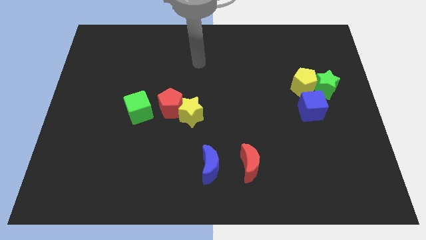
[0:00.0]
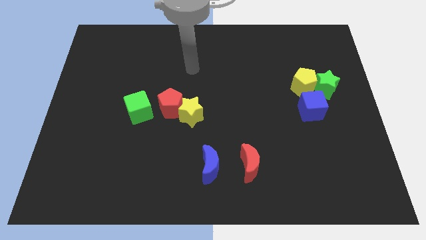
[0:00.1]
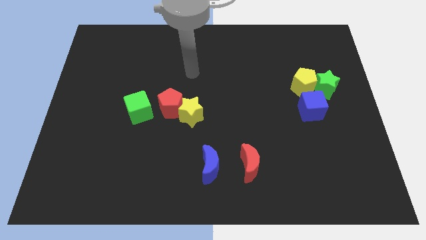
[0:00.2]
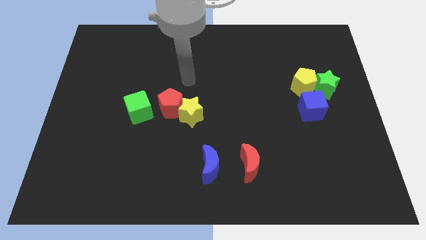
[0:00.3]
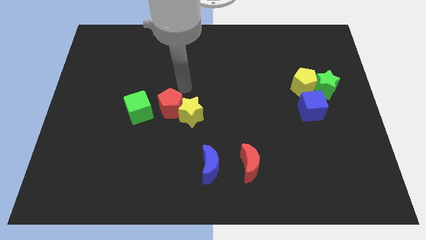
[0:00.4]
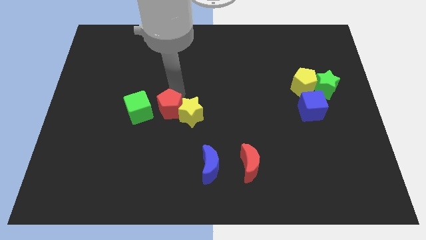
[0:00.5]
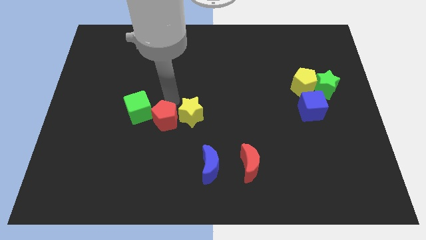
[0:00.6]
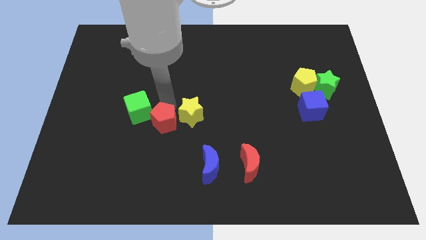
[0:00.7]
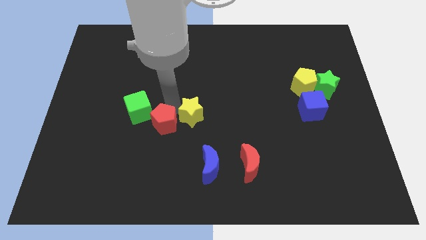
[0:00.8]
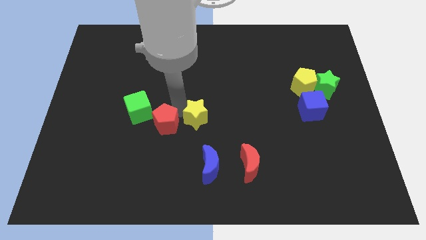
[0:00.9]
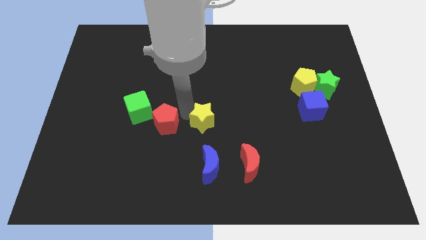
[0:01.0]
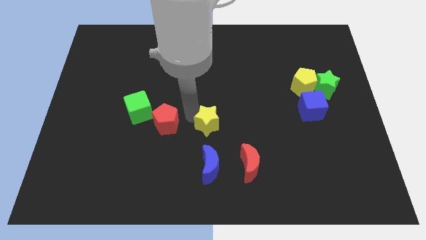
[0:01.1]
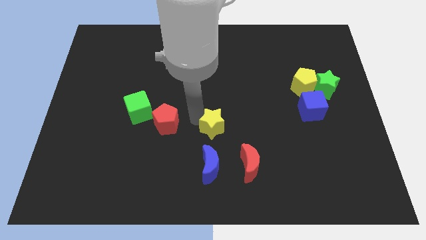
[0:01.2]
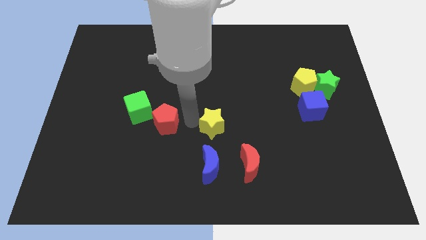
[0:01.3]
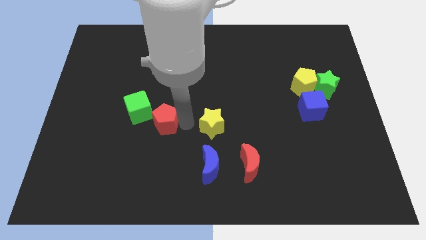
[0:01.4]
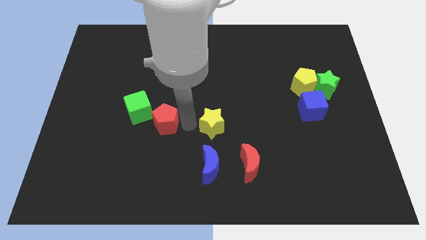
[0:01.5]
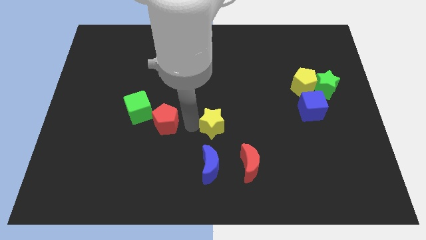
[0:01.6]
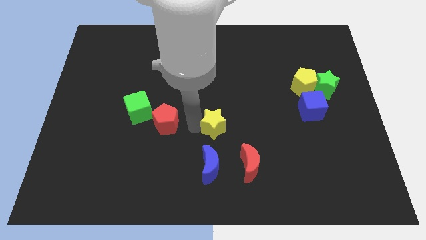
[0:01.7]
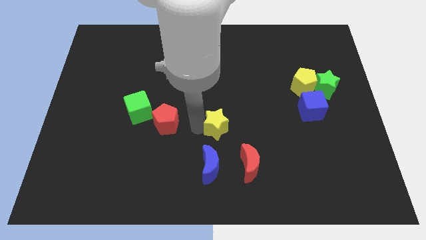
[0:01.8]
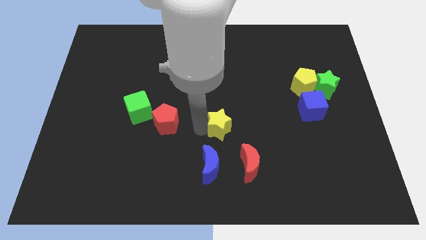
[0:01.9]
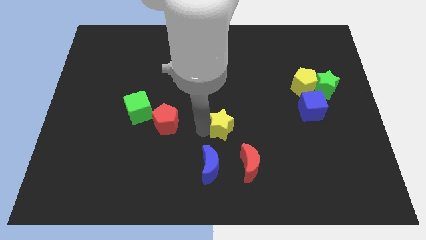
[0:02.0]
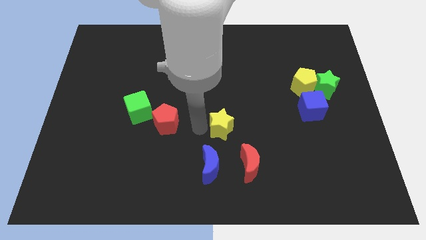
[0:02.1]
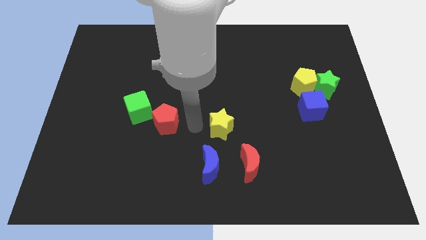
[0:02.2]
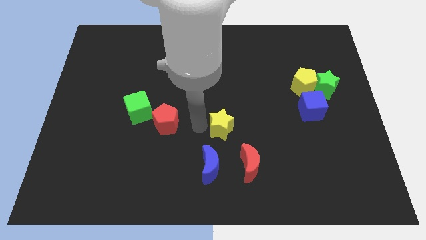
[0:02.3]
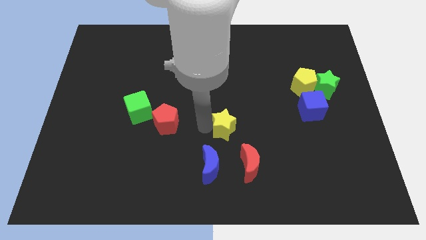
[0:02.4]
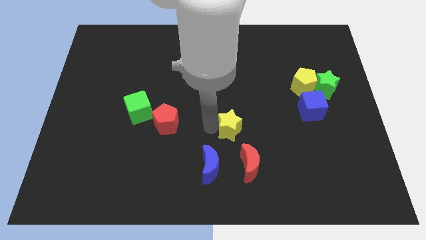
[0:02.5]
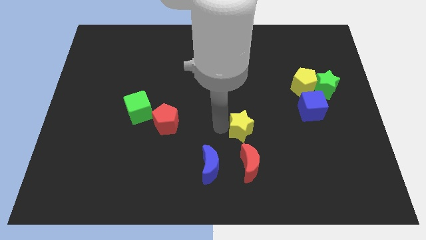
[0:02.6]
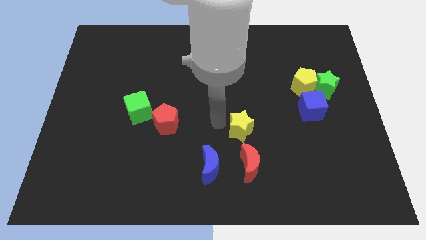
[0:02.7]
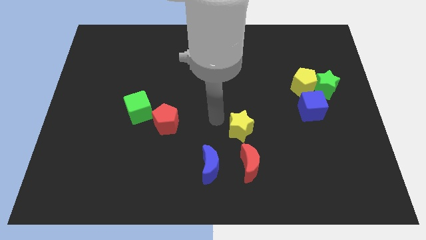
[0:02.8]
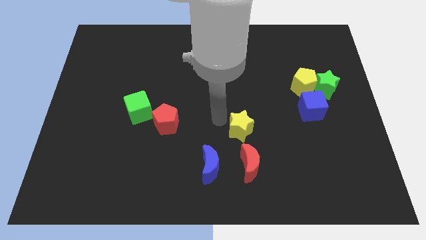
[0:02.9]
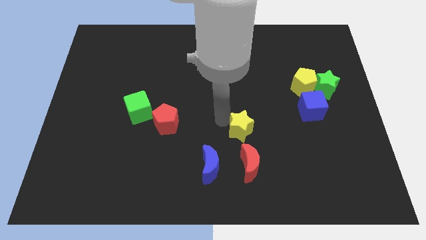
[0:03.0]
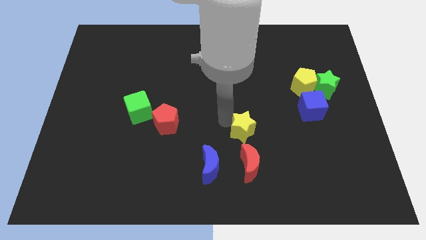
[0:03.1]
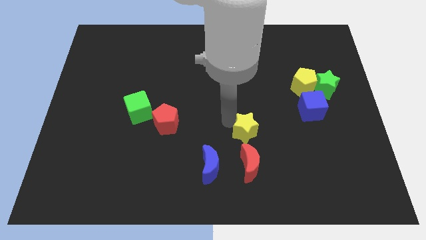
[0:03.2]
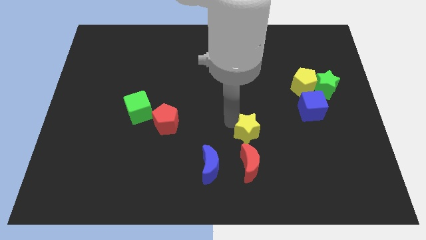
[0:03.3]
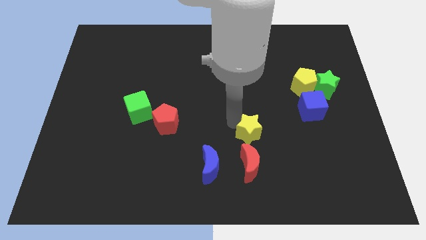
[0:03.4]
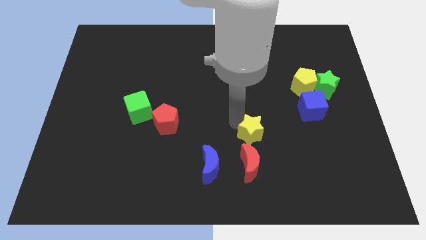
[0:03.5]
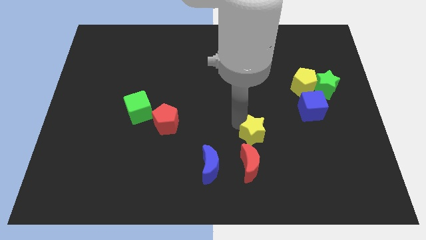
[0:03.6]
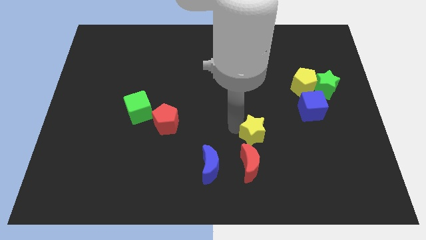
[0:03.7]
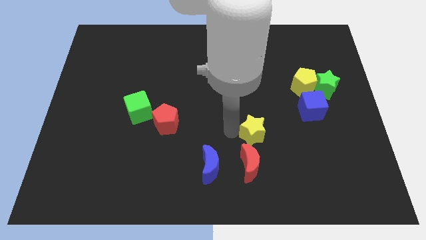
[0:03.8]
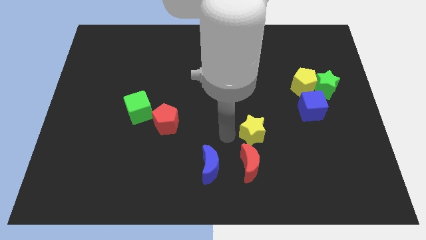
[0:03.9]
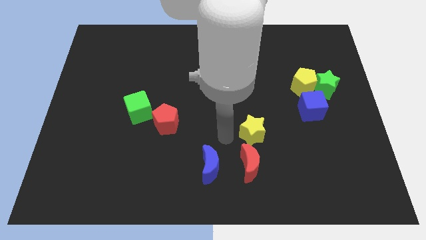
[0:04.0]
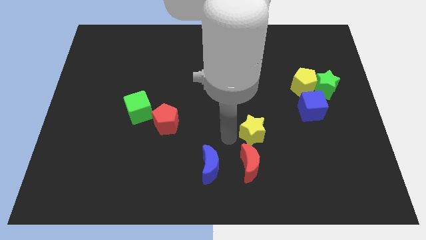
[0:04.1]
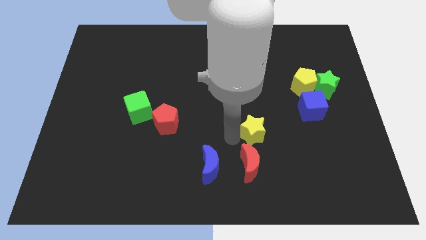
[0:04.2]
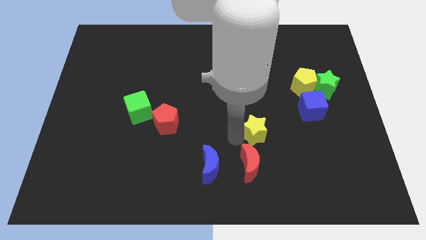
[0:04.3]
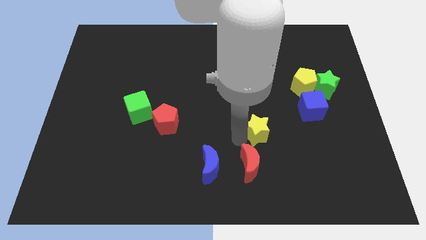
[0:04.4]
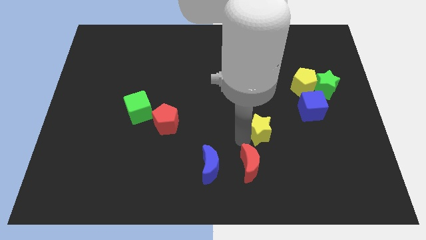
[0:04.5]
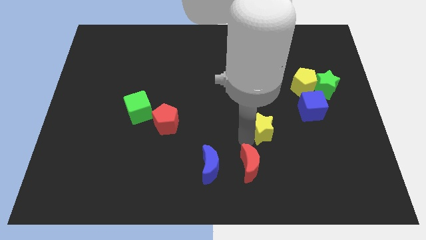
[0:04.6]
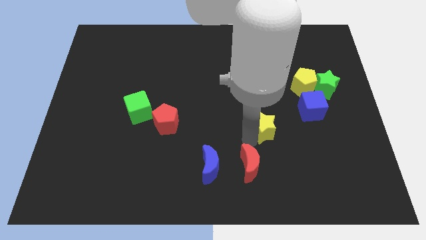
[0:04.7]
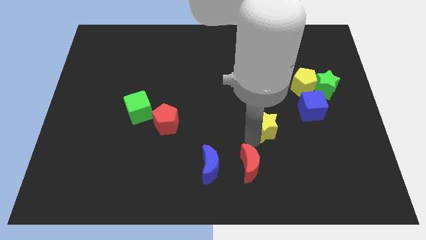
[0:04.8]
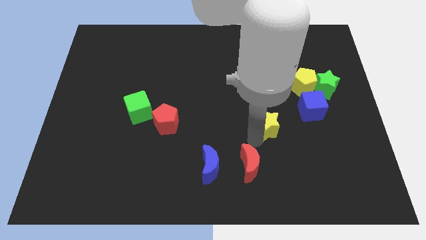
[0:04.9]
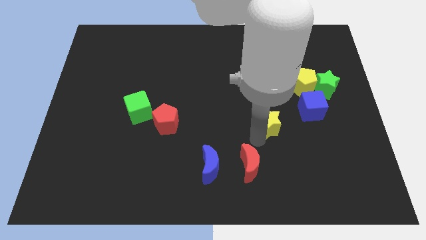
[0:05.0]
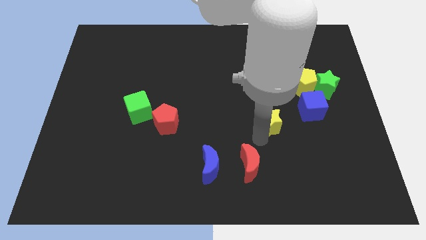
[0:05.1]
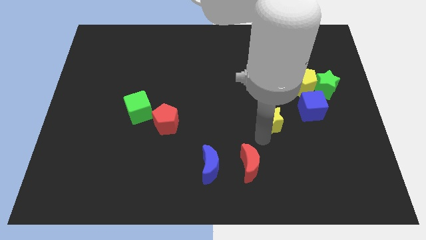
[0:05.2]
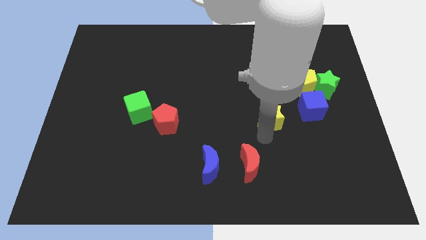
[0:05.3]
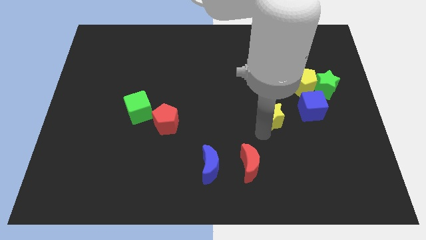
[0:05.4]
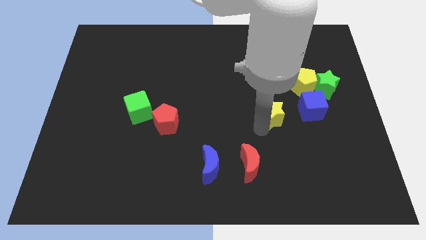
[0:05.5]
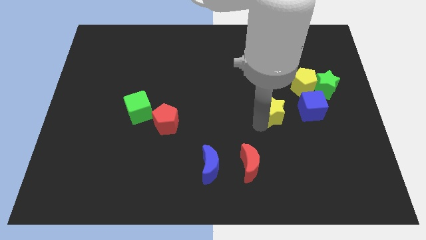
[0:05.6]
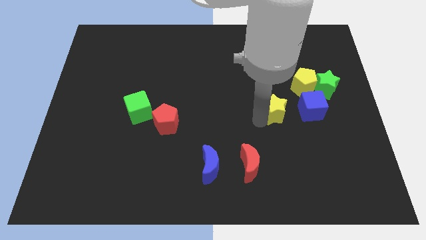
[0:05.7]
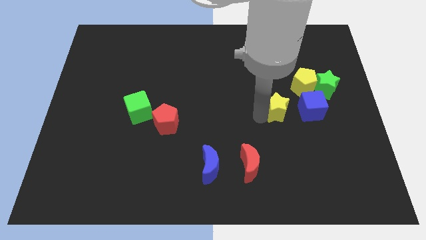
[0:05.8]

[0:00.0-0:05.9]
move the yellow star to the right

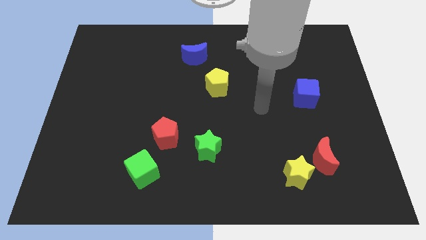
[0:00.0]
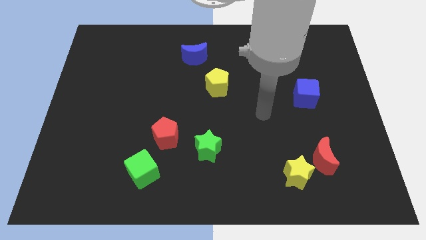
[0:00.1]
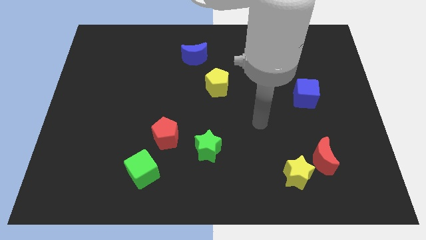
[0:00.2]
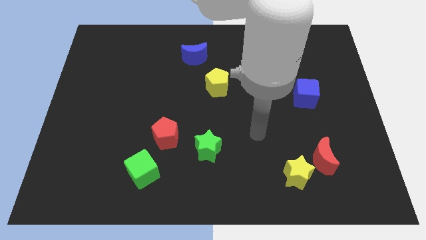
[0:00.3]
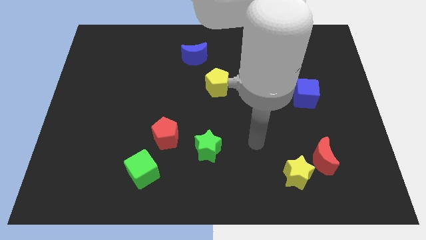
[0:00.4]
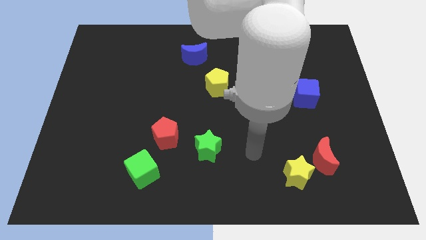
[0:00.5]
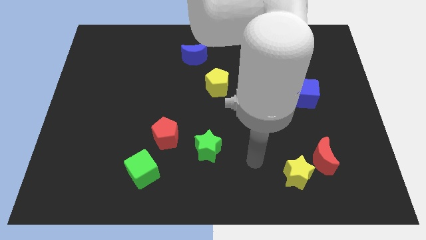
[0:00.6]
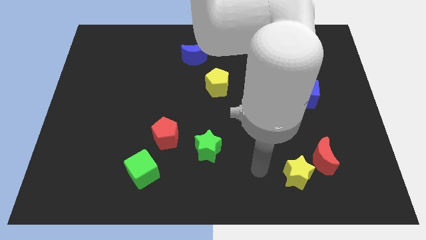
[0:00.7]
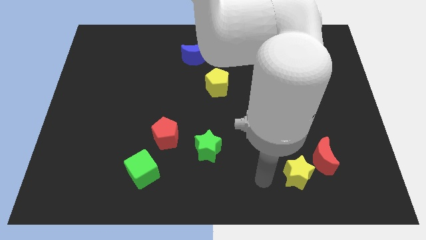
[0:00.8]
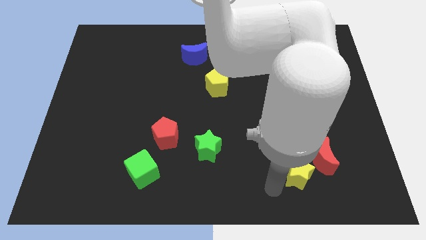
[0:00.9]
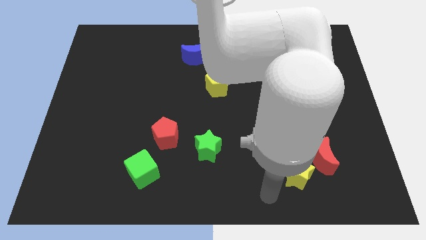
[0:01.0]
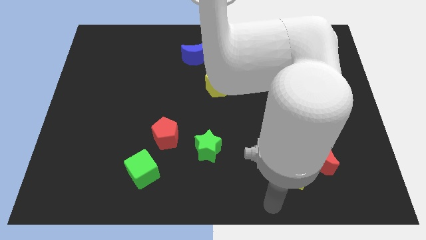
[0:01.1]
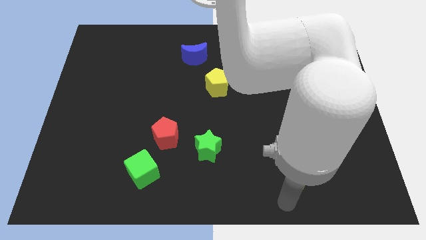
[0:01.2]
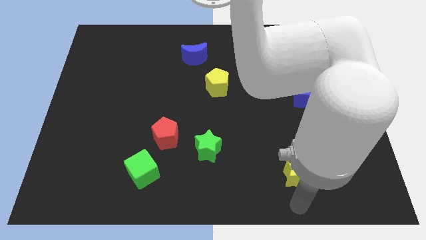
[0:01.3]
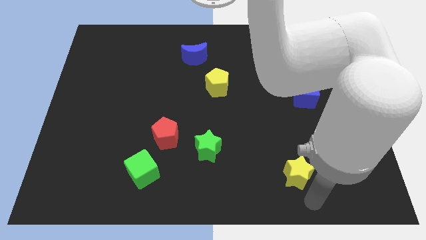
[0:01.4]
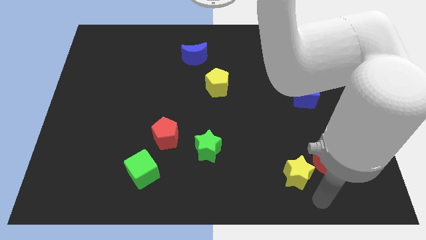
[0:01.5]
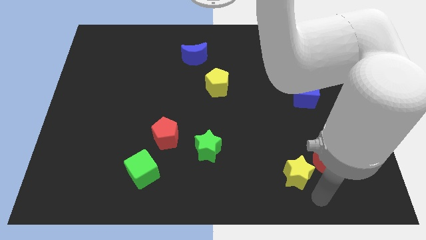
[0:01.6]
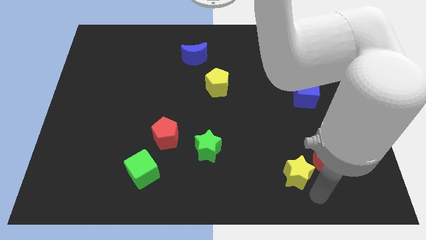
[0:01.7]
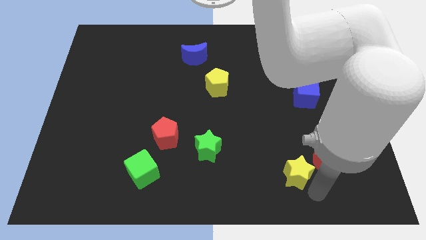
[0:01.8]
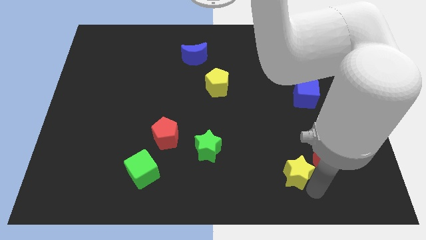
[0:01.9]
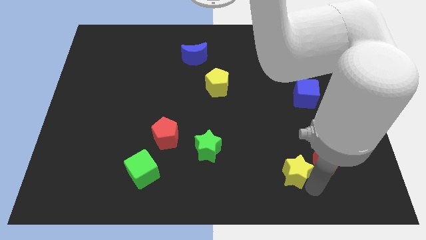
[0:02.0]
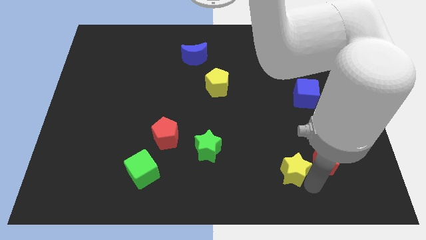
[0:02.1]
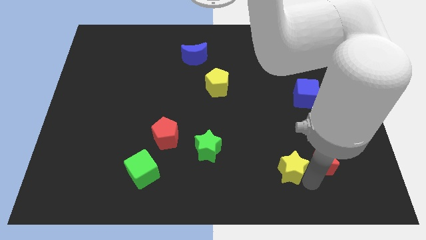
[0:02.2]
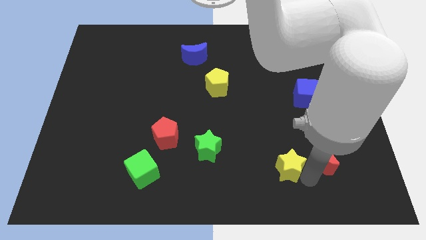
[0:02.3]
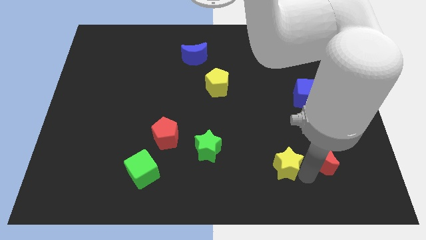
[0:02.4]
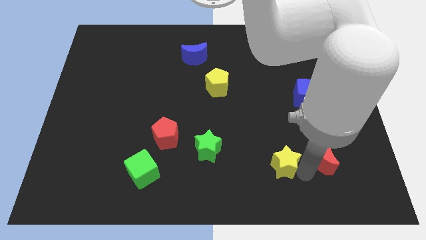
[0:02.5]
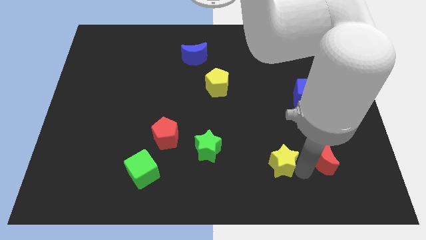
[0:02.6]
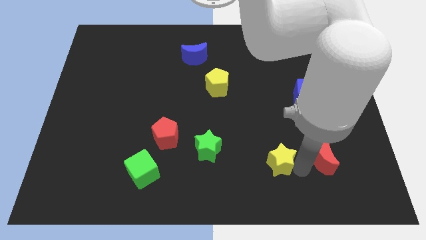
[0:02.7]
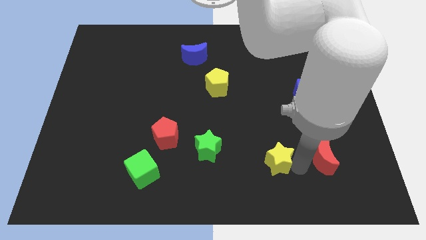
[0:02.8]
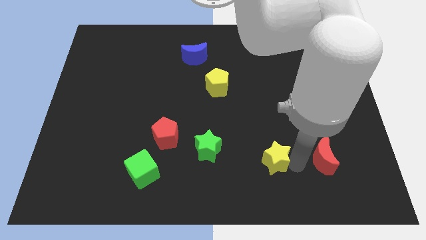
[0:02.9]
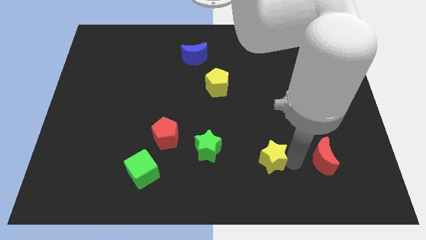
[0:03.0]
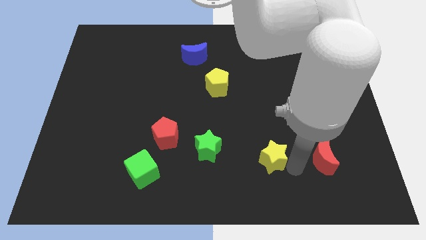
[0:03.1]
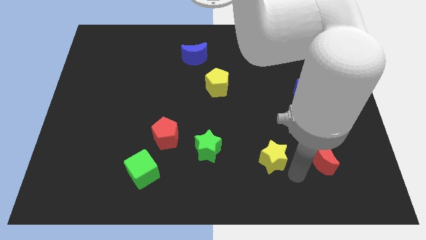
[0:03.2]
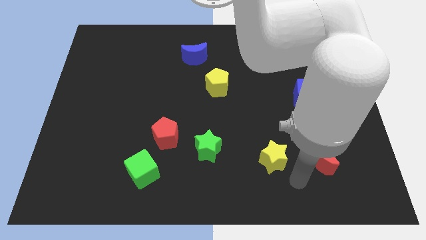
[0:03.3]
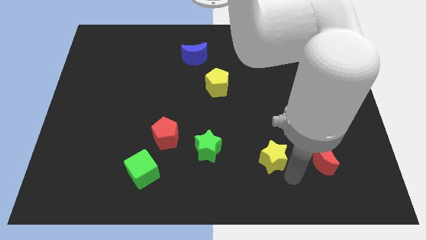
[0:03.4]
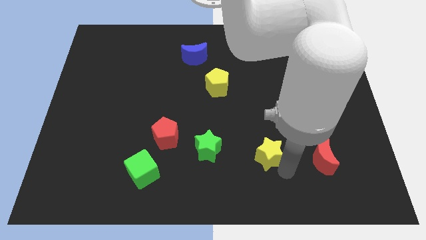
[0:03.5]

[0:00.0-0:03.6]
move the yellow star up and left slightly
